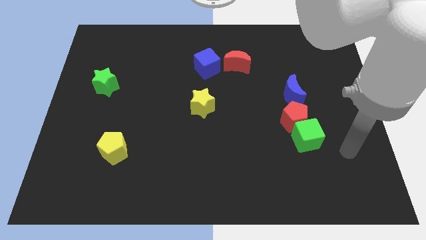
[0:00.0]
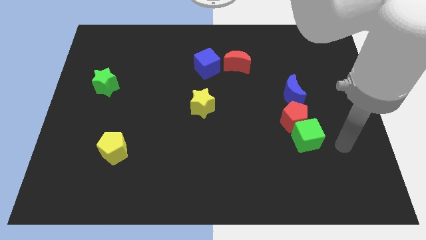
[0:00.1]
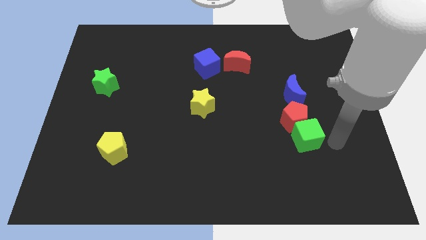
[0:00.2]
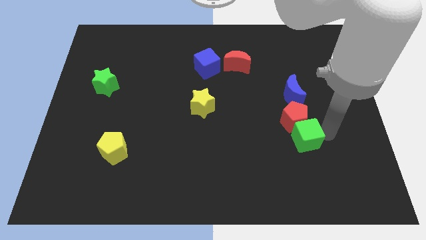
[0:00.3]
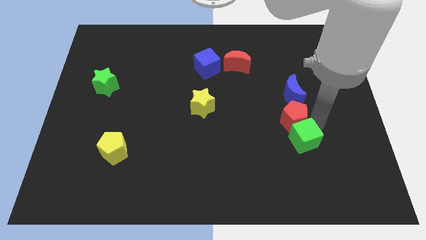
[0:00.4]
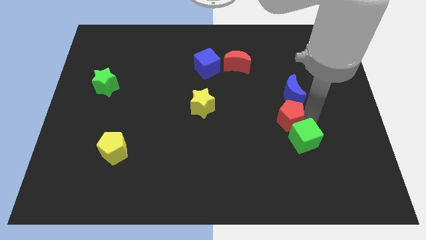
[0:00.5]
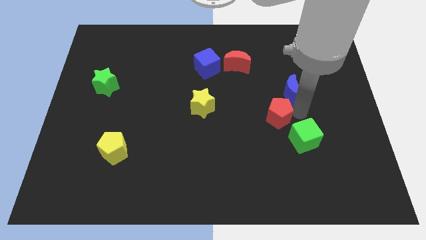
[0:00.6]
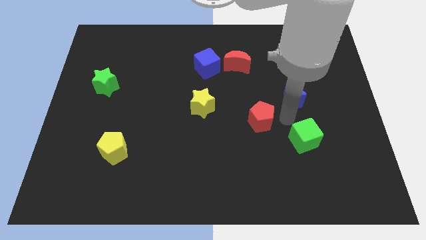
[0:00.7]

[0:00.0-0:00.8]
pull the green cube apart from the red pentagon

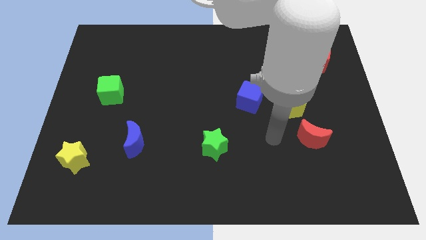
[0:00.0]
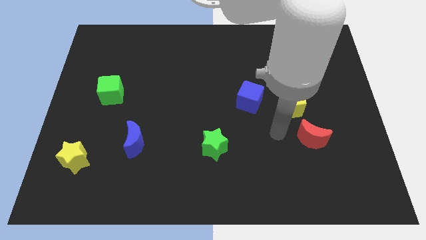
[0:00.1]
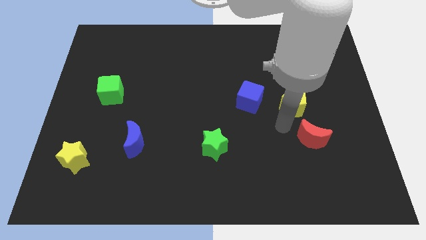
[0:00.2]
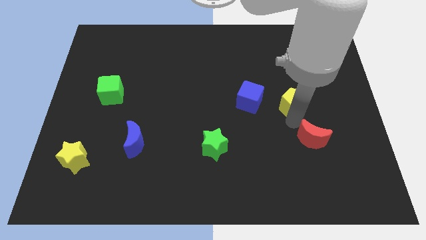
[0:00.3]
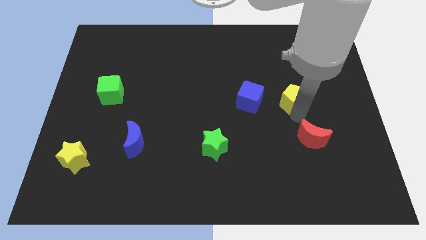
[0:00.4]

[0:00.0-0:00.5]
separate the red moon from the yellow pentagon

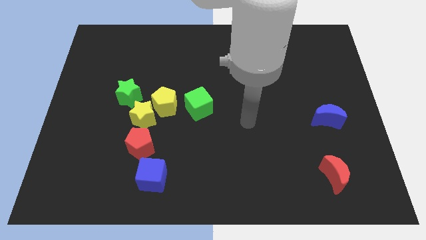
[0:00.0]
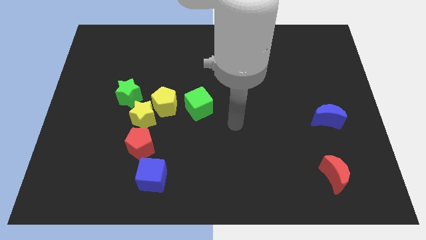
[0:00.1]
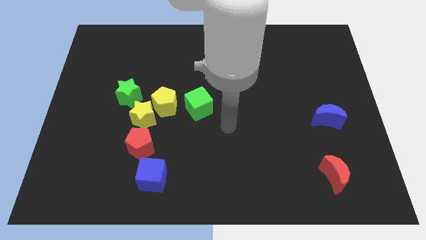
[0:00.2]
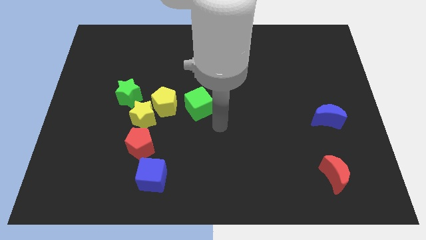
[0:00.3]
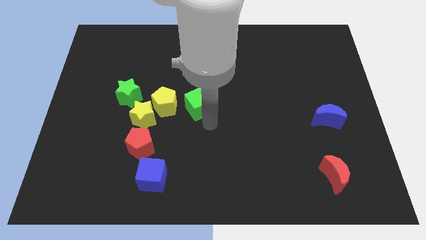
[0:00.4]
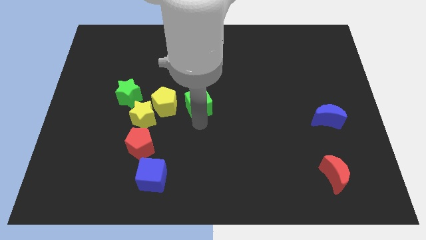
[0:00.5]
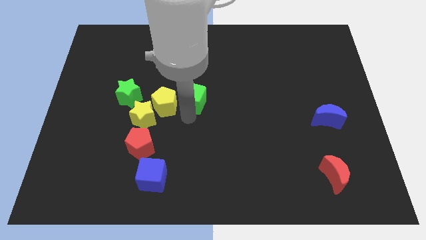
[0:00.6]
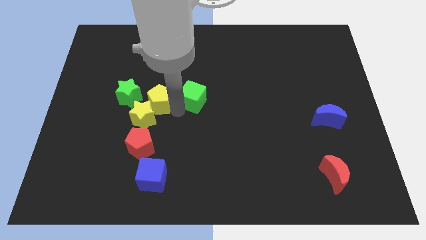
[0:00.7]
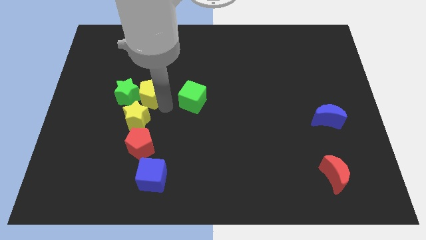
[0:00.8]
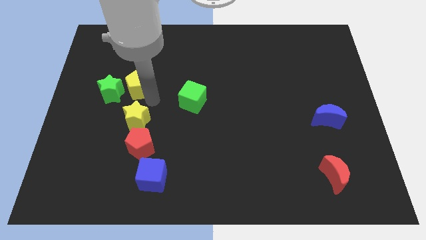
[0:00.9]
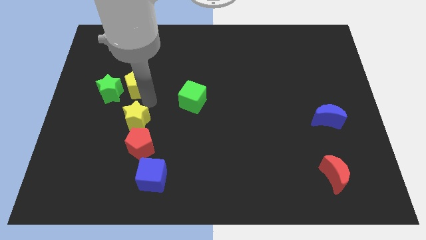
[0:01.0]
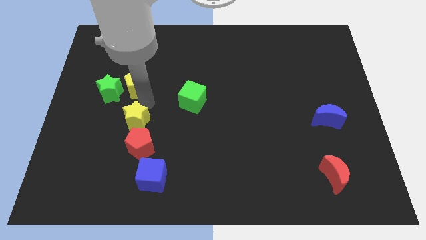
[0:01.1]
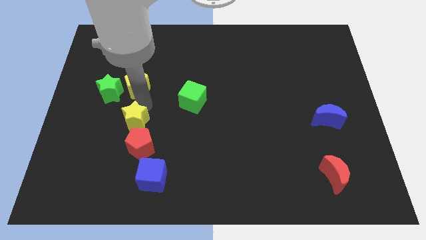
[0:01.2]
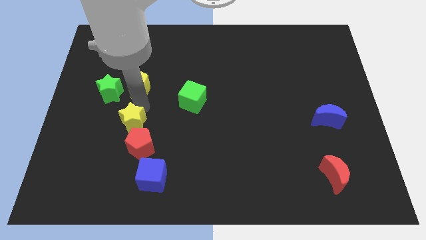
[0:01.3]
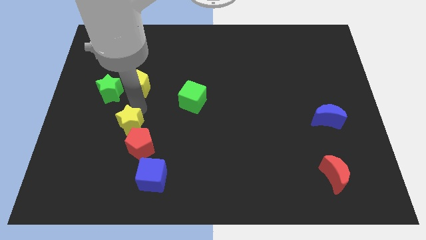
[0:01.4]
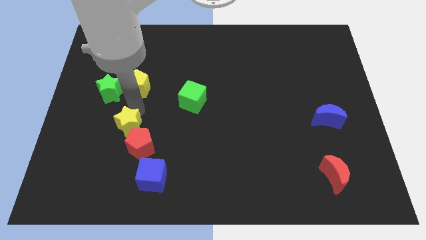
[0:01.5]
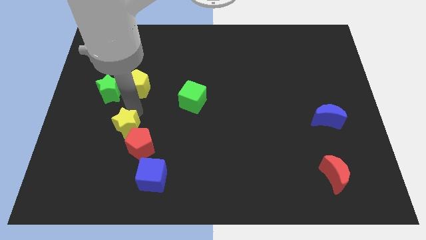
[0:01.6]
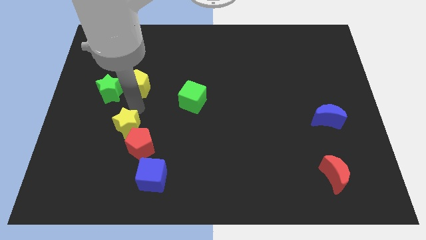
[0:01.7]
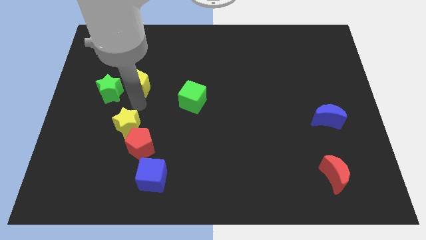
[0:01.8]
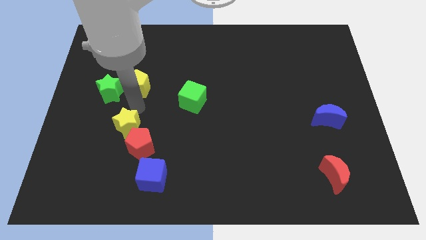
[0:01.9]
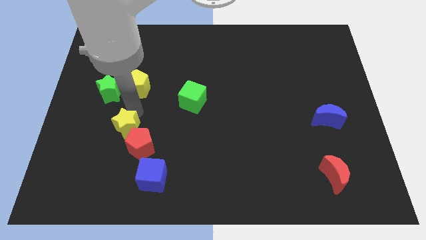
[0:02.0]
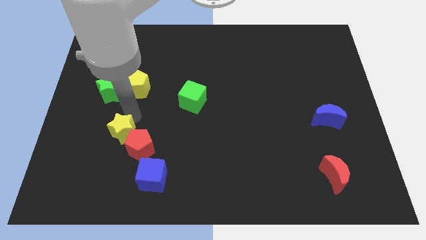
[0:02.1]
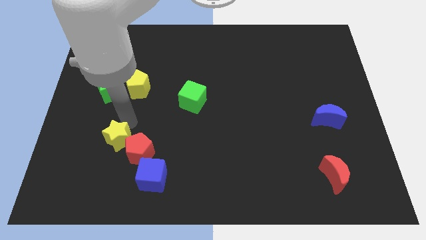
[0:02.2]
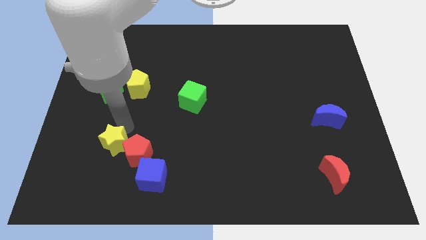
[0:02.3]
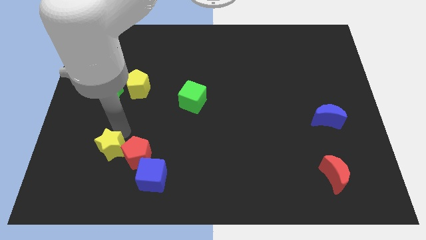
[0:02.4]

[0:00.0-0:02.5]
separate the yellow star from the group

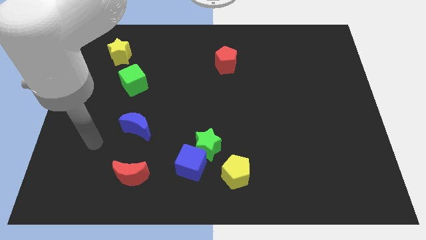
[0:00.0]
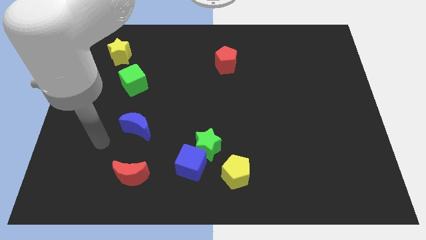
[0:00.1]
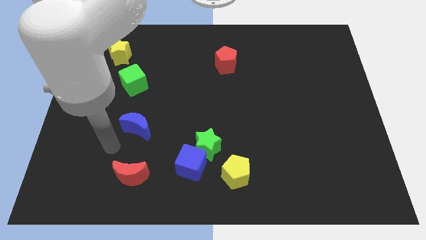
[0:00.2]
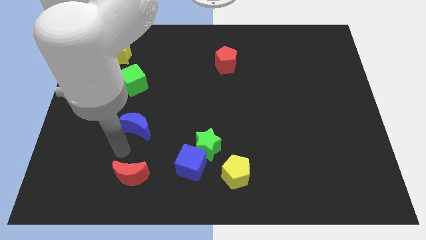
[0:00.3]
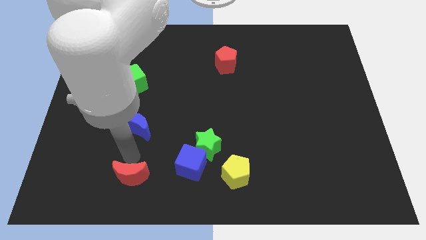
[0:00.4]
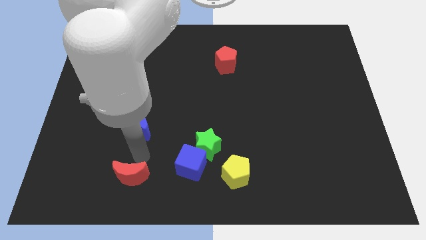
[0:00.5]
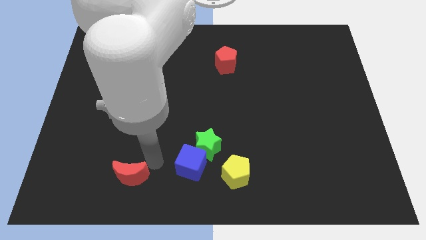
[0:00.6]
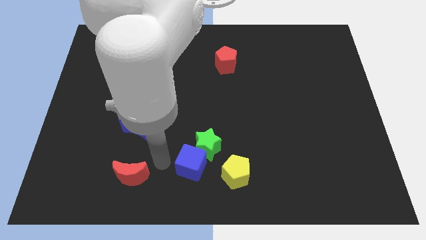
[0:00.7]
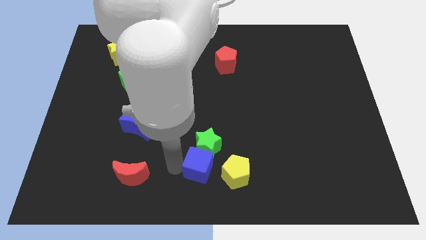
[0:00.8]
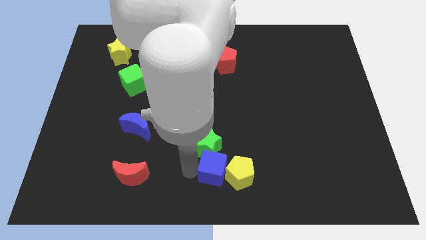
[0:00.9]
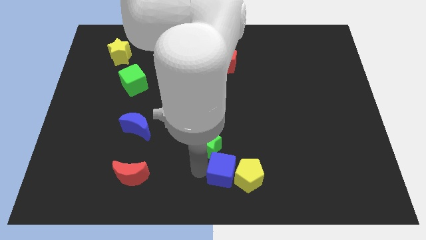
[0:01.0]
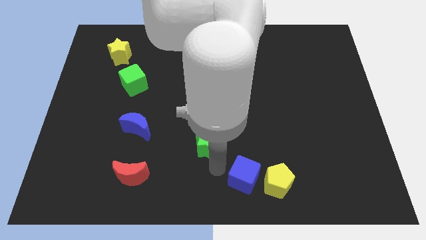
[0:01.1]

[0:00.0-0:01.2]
separate the green star from the blue cube and yellow pentagon

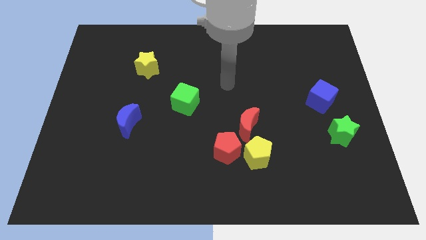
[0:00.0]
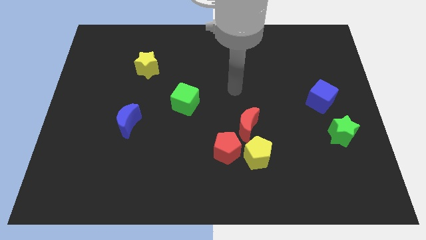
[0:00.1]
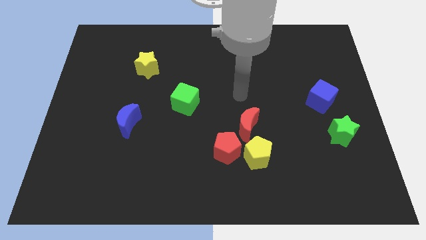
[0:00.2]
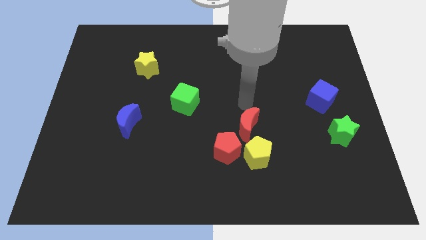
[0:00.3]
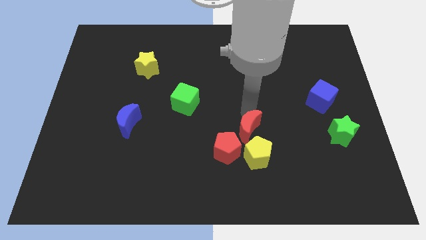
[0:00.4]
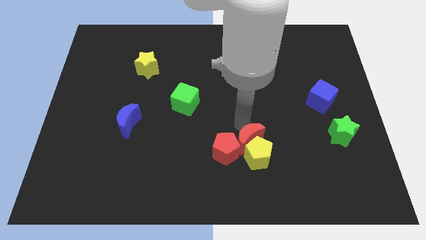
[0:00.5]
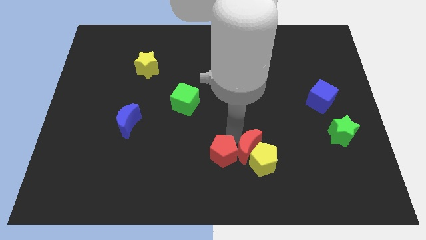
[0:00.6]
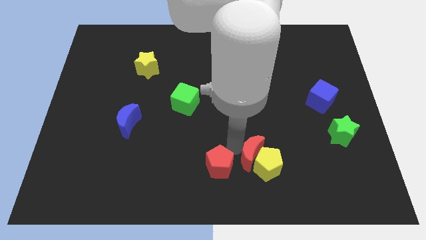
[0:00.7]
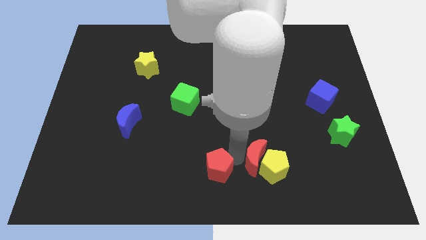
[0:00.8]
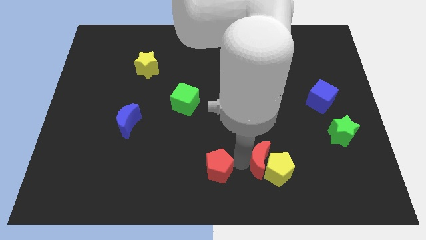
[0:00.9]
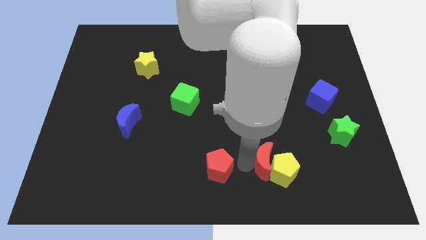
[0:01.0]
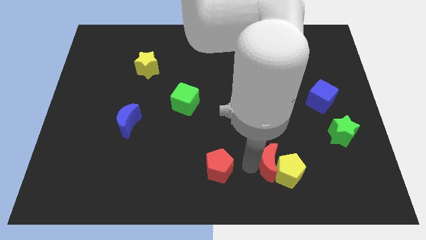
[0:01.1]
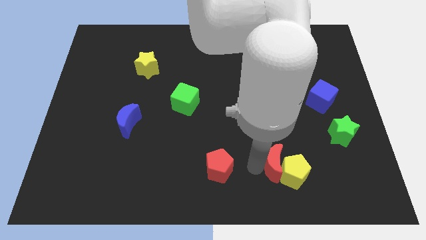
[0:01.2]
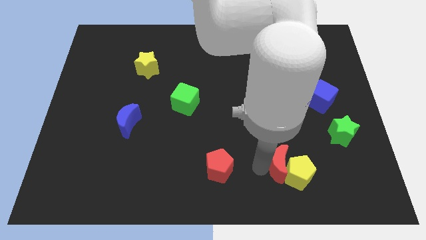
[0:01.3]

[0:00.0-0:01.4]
move the yellow pentagon away from the red pentagon and red moon

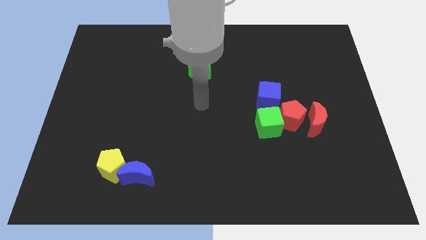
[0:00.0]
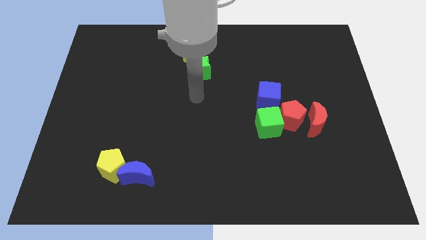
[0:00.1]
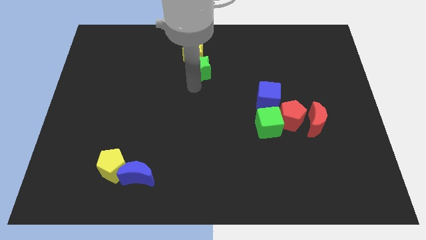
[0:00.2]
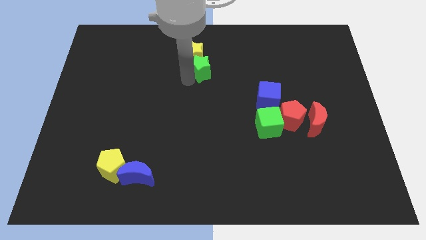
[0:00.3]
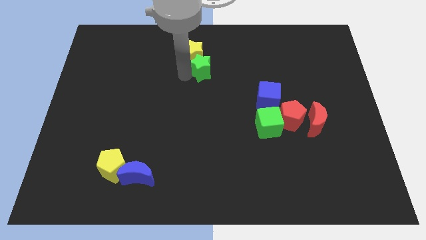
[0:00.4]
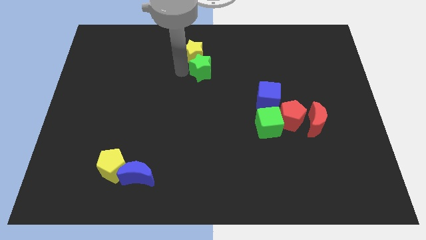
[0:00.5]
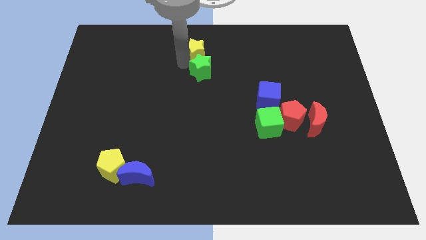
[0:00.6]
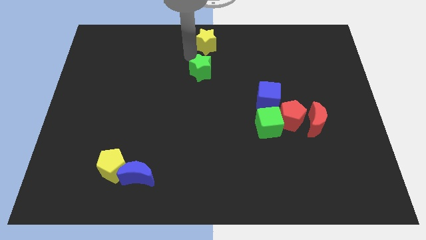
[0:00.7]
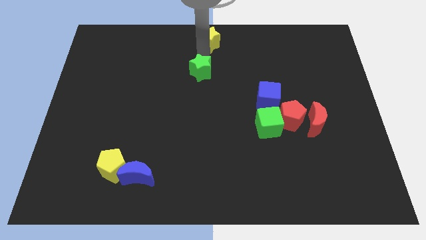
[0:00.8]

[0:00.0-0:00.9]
move the green star away from the yellow star

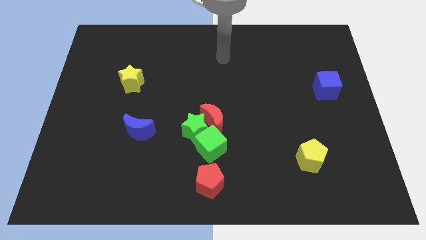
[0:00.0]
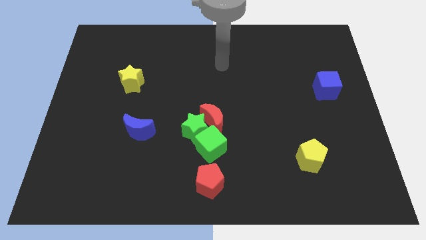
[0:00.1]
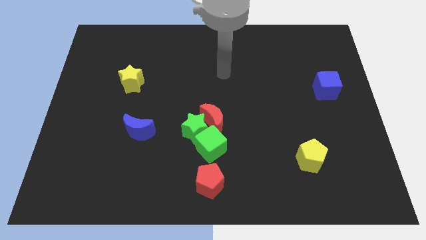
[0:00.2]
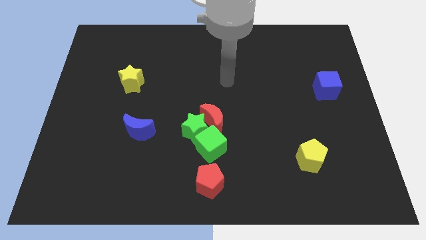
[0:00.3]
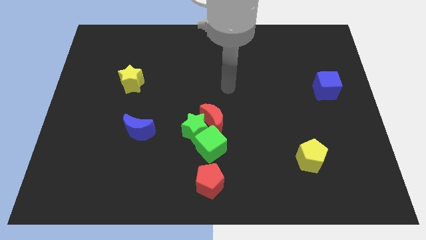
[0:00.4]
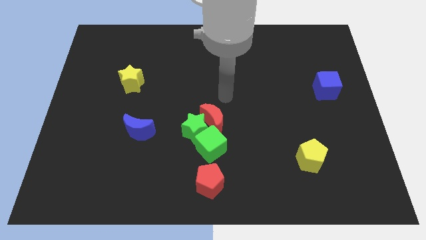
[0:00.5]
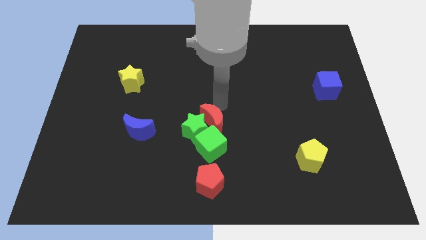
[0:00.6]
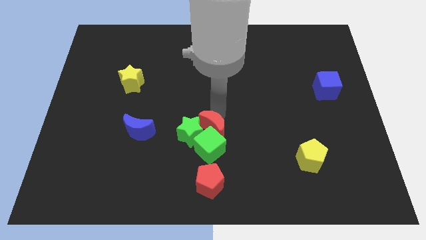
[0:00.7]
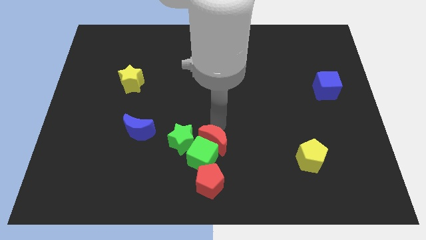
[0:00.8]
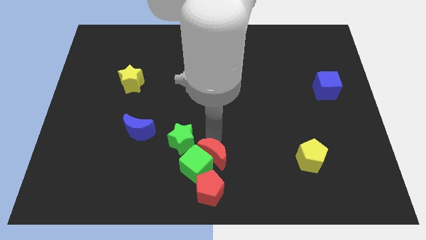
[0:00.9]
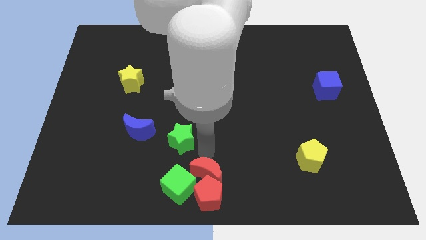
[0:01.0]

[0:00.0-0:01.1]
pull the green star apart from the red moon and green cube

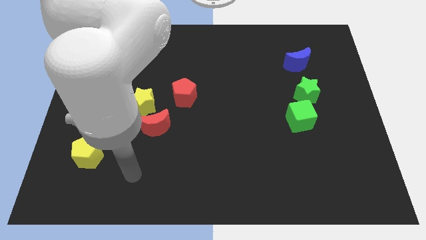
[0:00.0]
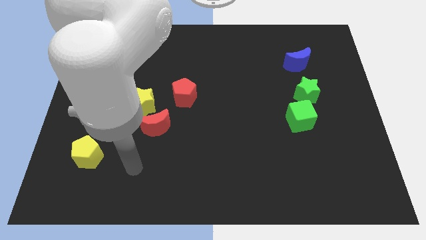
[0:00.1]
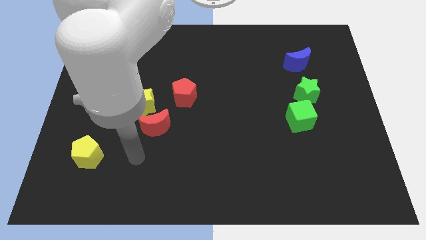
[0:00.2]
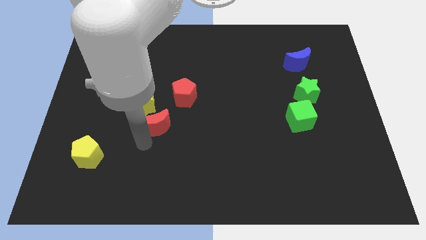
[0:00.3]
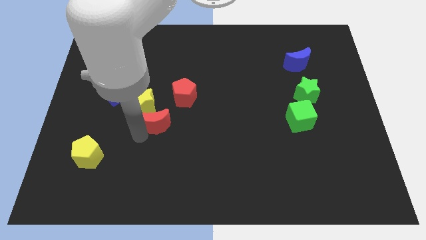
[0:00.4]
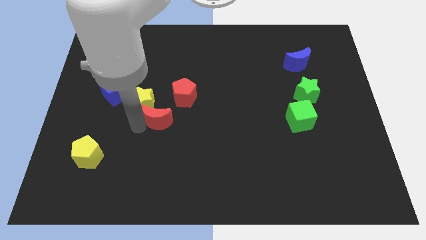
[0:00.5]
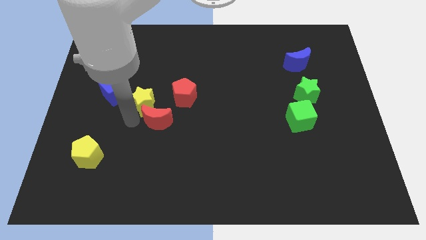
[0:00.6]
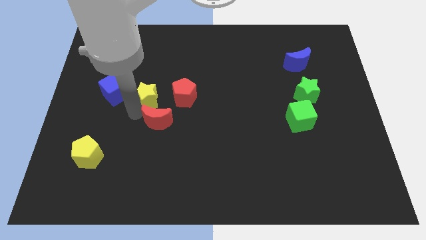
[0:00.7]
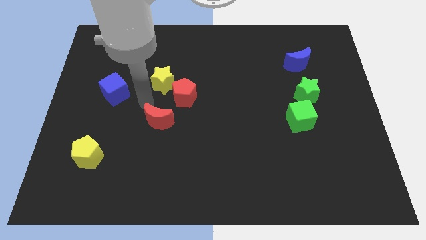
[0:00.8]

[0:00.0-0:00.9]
pull the red moon apart from the yellow star
